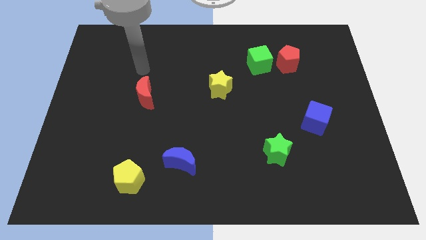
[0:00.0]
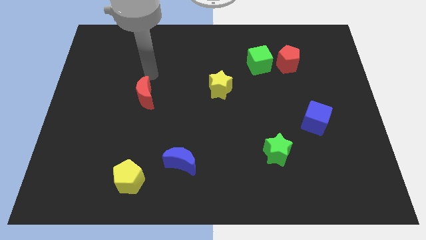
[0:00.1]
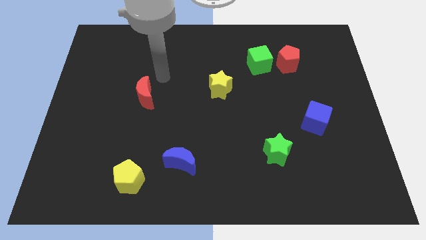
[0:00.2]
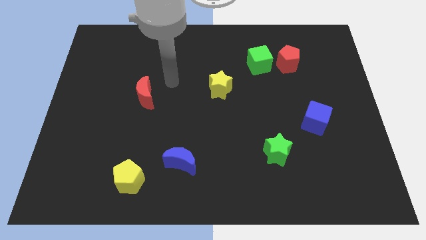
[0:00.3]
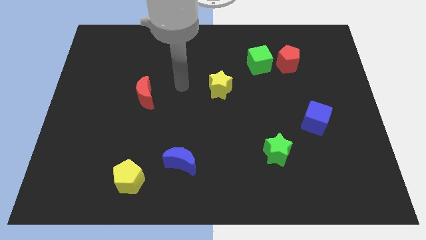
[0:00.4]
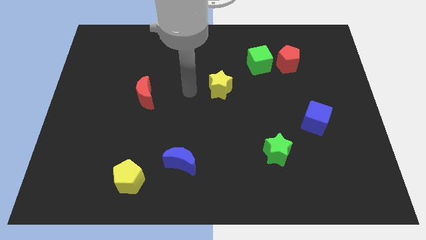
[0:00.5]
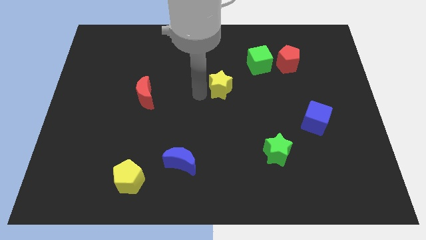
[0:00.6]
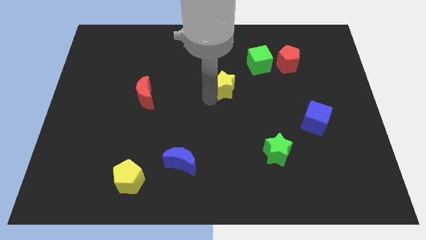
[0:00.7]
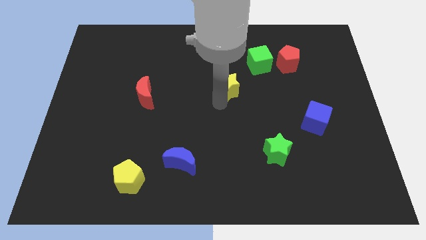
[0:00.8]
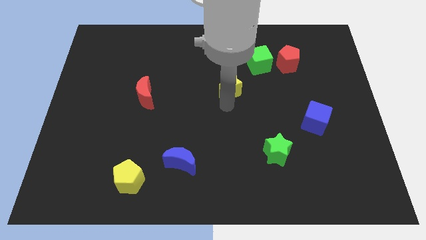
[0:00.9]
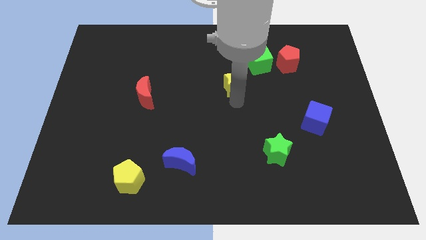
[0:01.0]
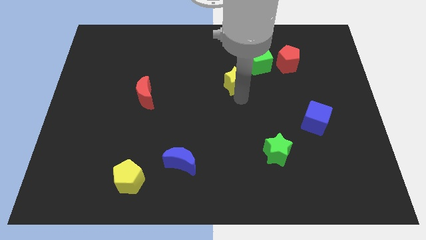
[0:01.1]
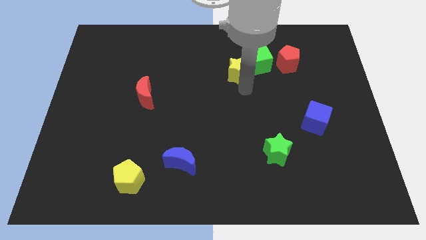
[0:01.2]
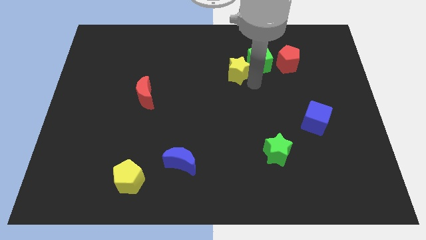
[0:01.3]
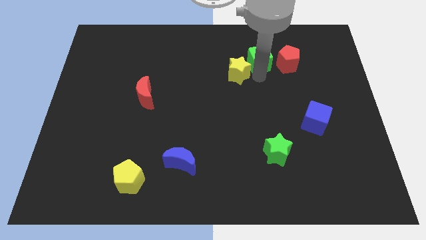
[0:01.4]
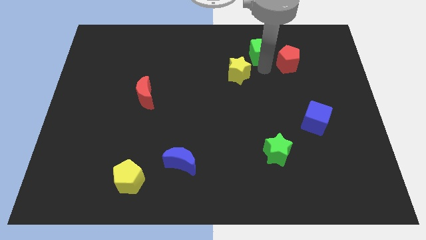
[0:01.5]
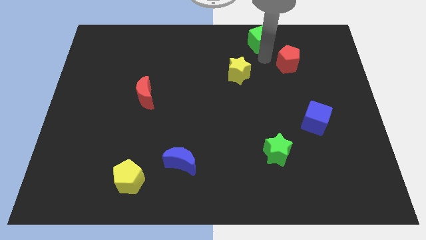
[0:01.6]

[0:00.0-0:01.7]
pull the red pentagon apart from the green cube

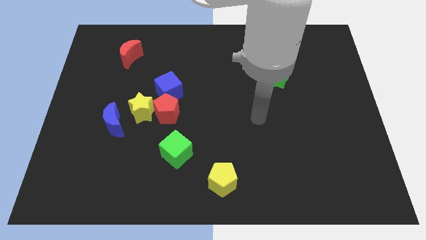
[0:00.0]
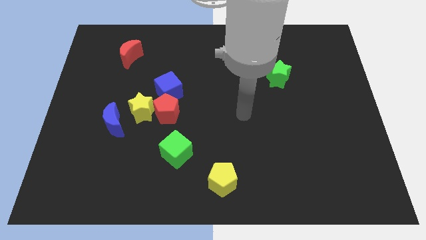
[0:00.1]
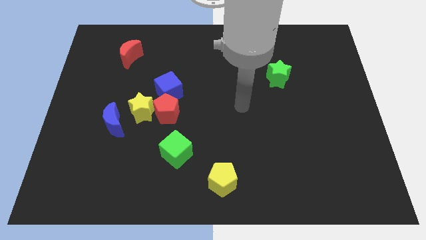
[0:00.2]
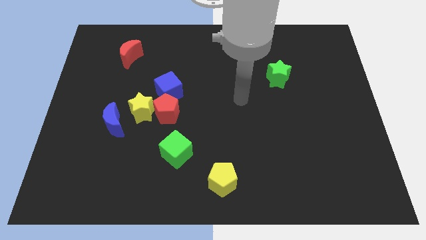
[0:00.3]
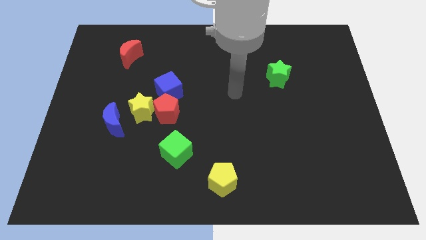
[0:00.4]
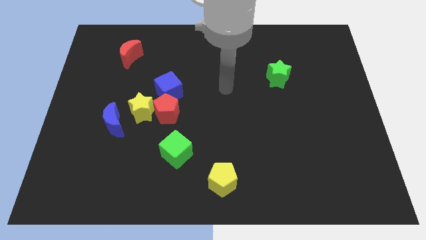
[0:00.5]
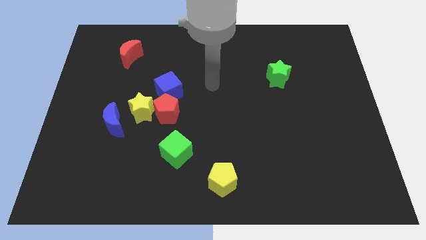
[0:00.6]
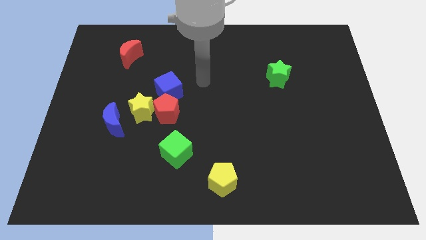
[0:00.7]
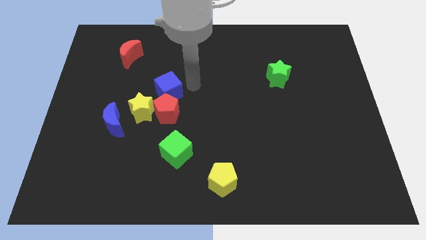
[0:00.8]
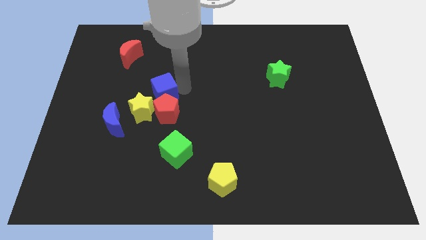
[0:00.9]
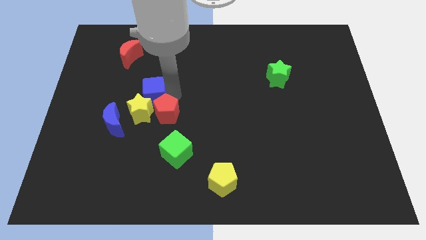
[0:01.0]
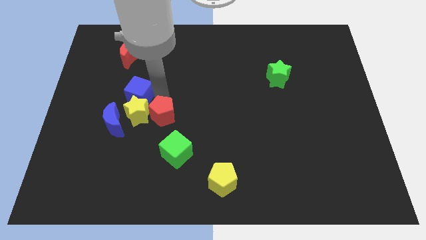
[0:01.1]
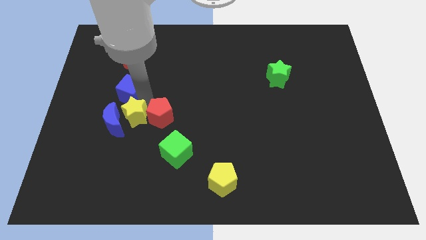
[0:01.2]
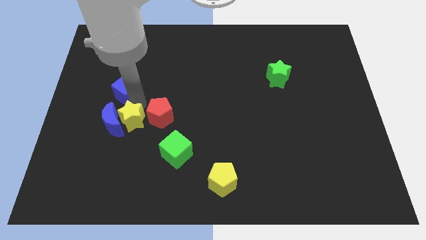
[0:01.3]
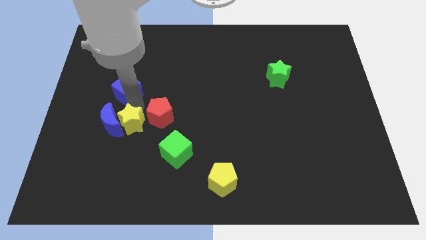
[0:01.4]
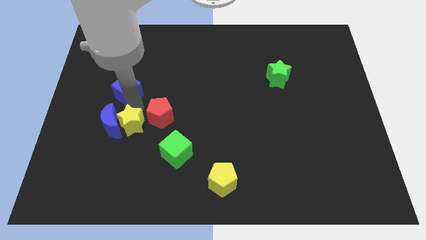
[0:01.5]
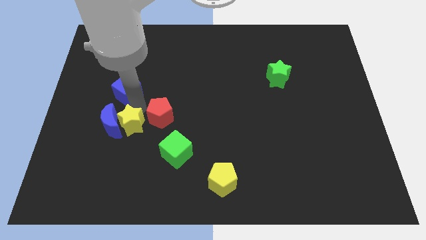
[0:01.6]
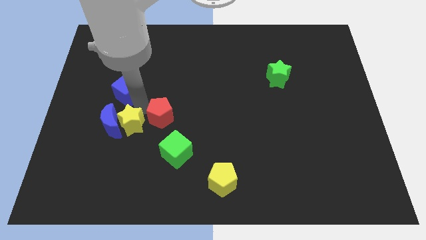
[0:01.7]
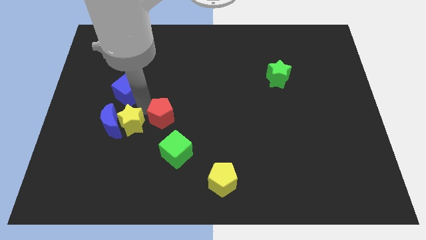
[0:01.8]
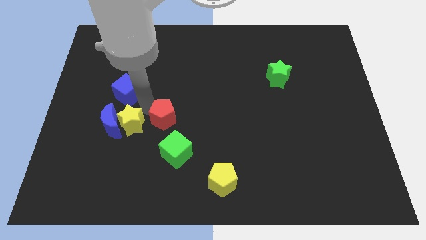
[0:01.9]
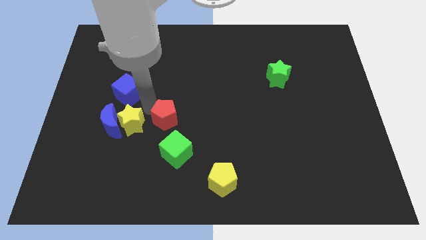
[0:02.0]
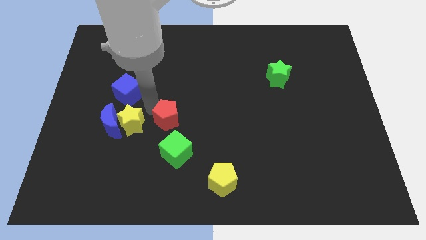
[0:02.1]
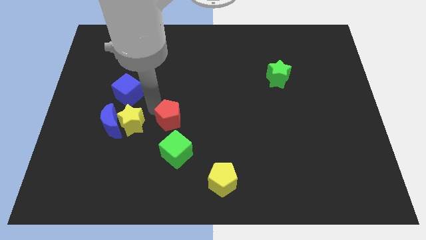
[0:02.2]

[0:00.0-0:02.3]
pull the red pentagon apart from the yellow star and blue cube

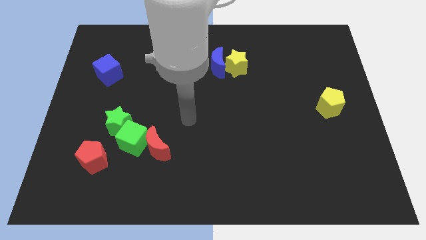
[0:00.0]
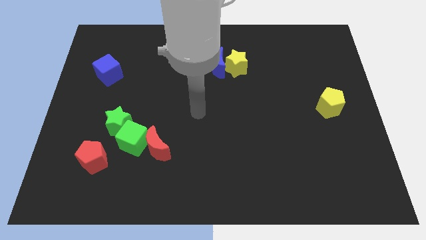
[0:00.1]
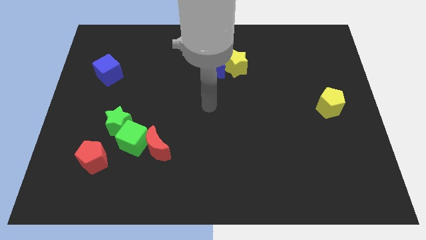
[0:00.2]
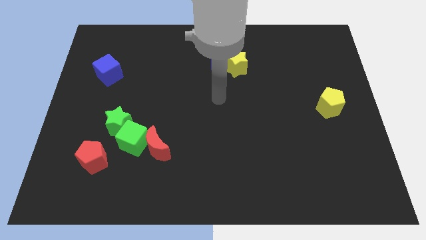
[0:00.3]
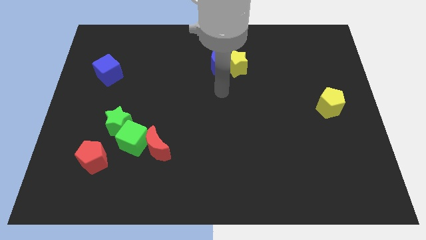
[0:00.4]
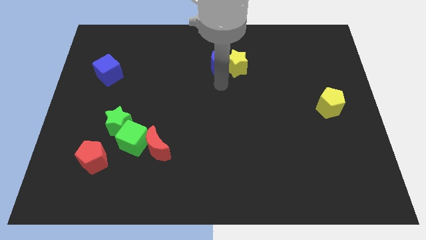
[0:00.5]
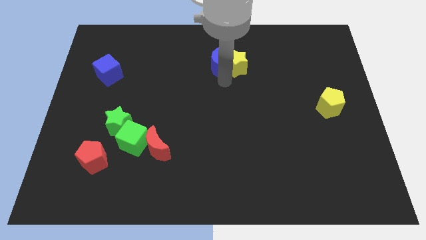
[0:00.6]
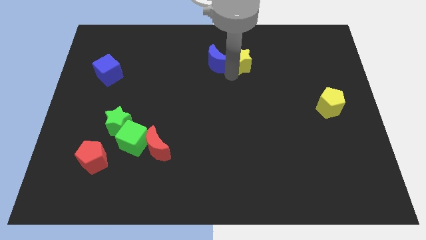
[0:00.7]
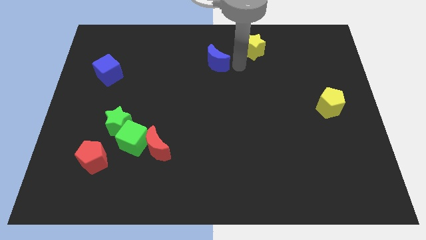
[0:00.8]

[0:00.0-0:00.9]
separate the blue moon from the yellow star

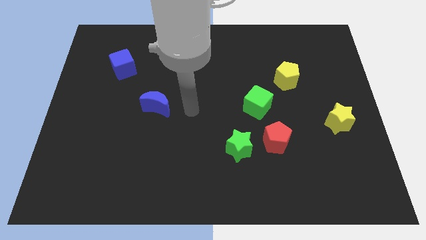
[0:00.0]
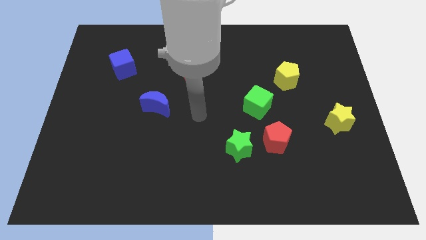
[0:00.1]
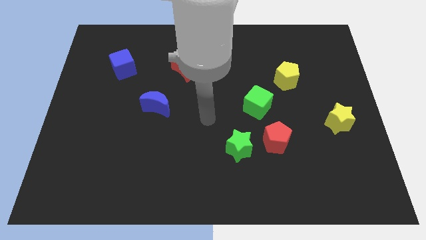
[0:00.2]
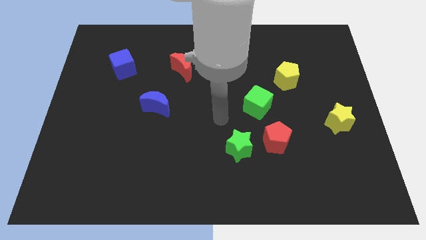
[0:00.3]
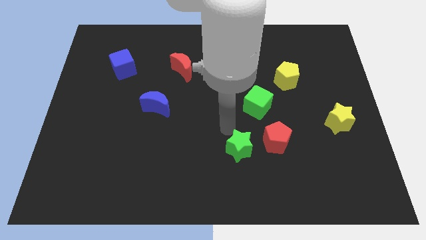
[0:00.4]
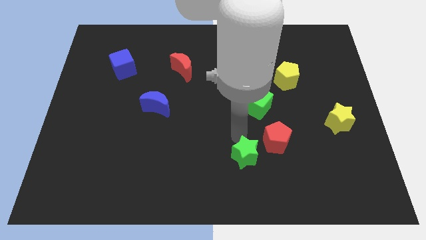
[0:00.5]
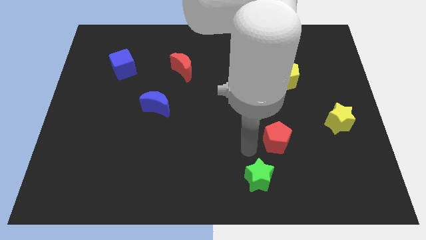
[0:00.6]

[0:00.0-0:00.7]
move the red pentagon away from the green star

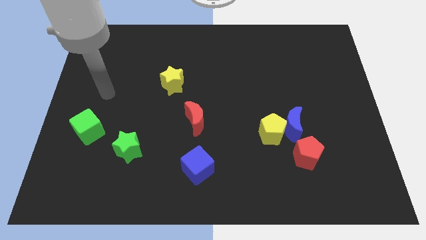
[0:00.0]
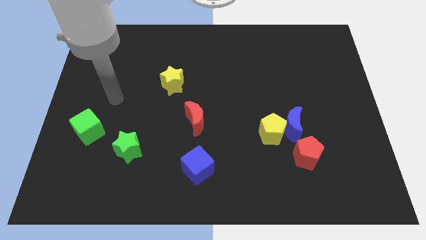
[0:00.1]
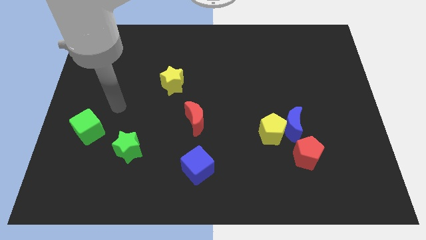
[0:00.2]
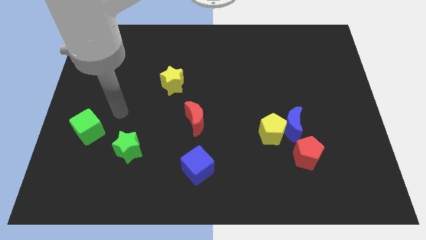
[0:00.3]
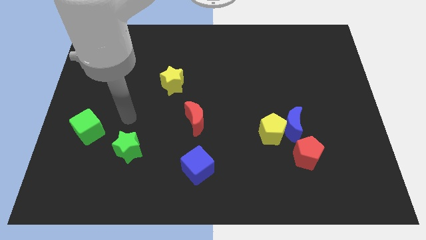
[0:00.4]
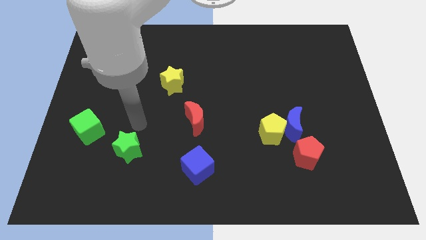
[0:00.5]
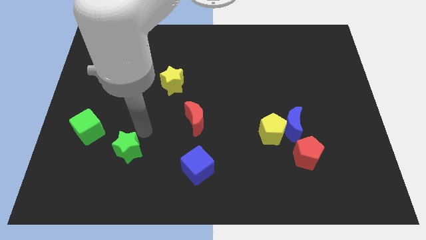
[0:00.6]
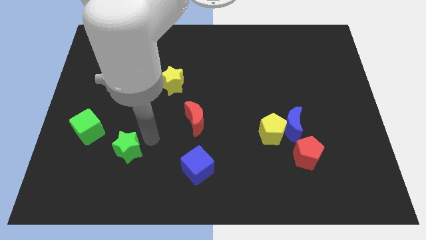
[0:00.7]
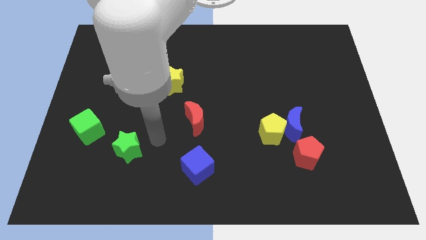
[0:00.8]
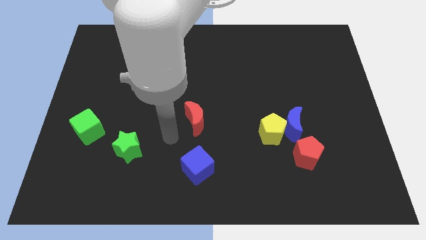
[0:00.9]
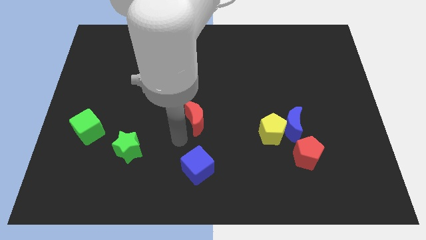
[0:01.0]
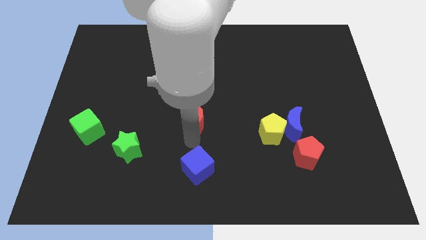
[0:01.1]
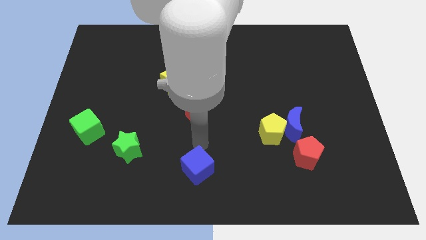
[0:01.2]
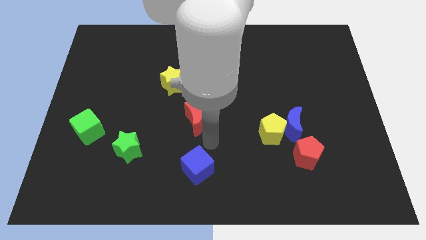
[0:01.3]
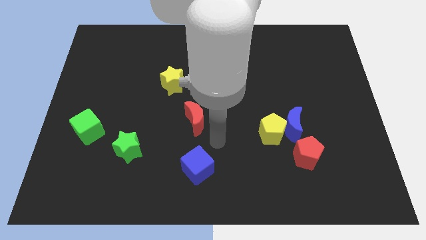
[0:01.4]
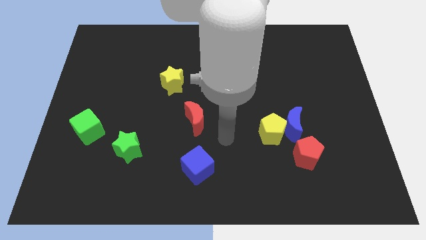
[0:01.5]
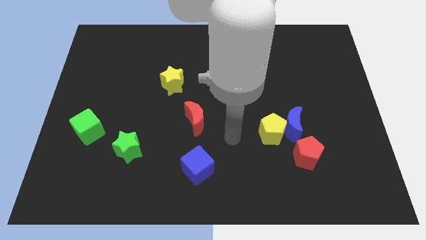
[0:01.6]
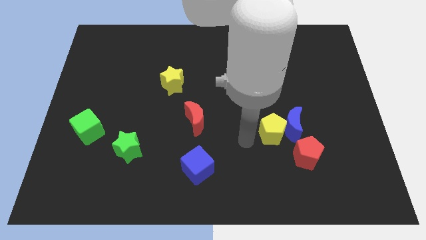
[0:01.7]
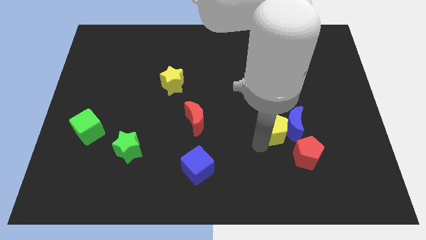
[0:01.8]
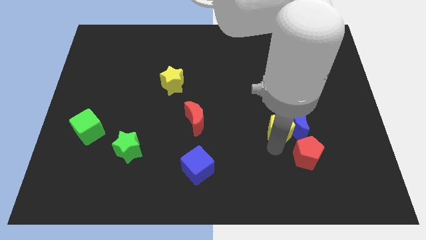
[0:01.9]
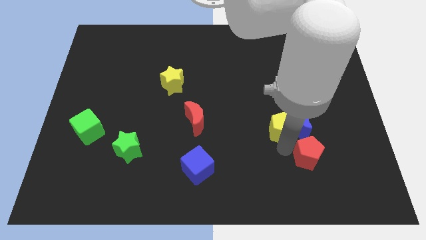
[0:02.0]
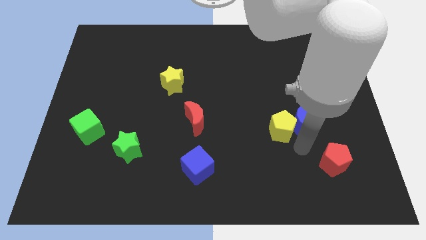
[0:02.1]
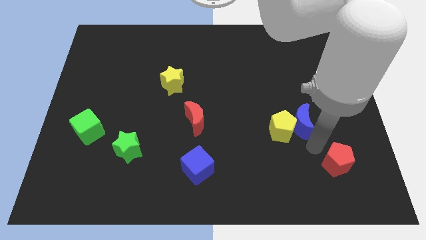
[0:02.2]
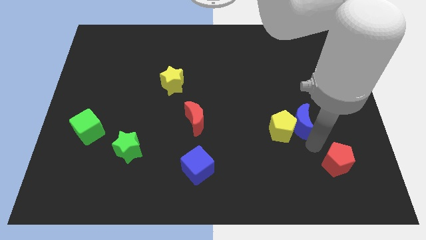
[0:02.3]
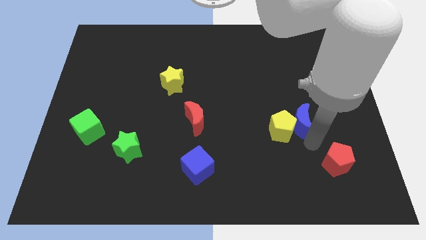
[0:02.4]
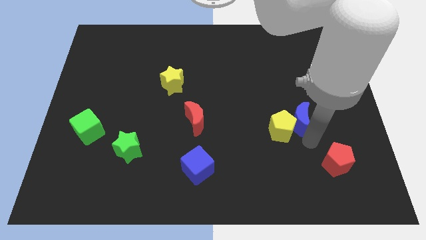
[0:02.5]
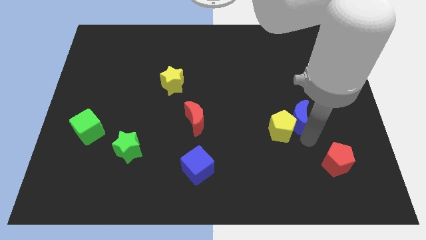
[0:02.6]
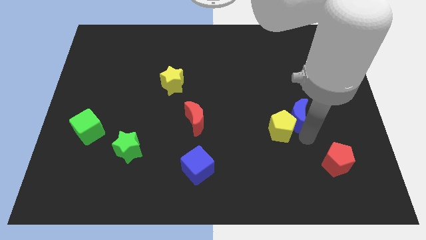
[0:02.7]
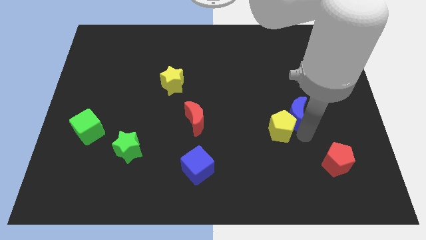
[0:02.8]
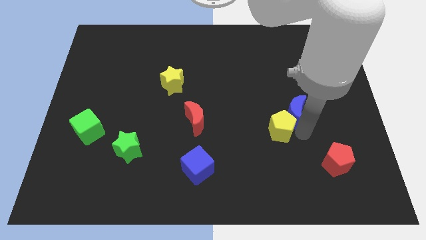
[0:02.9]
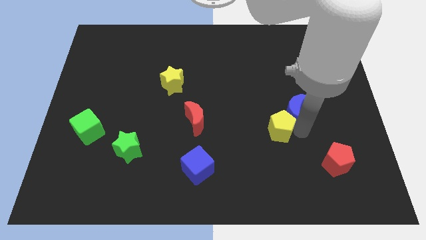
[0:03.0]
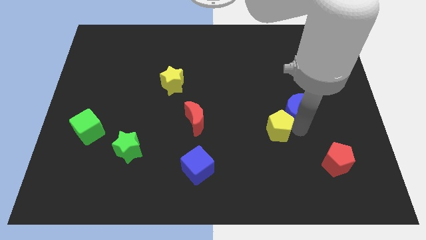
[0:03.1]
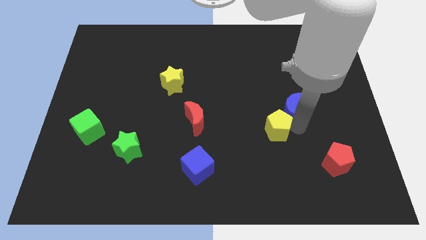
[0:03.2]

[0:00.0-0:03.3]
pull the blue moon apart from the yellow pentagon and red pentagon

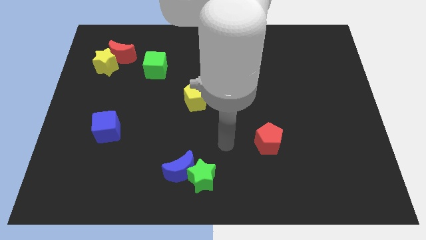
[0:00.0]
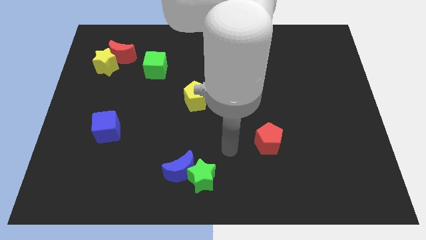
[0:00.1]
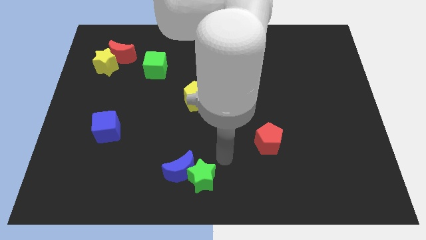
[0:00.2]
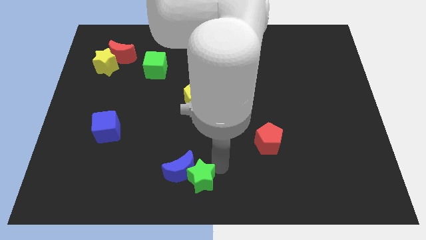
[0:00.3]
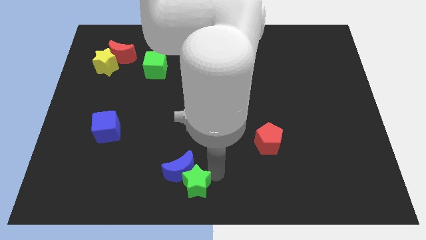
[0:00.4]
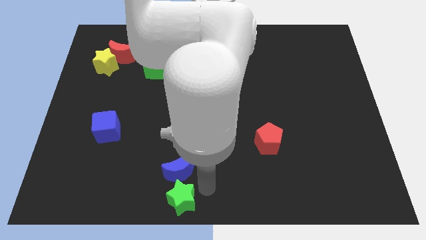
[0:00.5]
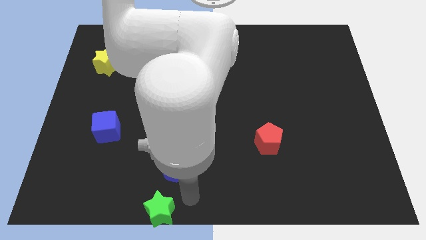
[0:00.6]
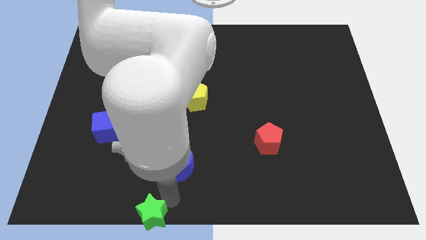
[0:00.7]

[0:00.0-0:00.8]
separate the blue moon from the green star
